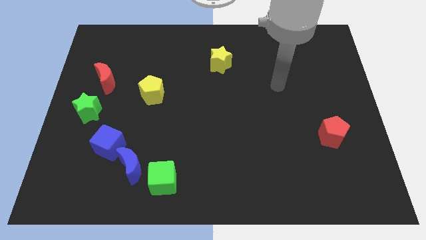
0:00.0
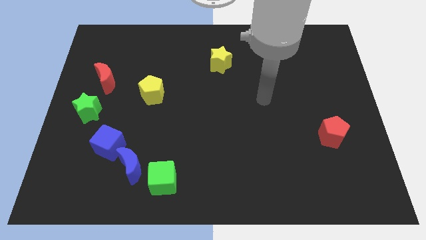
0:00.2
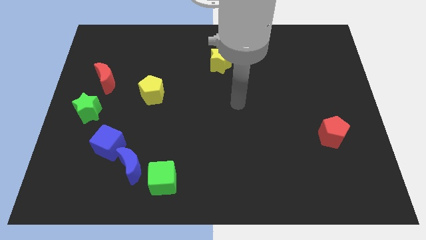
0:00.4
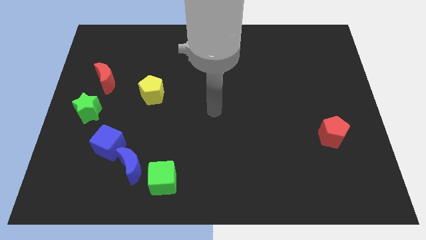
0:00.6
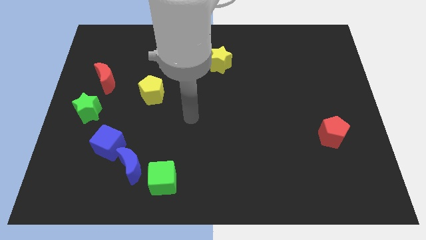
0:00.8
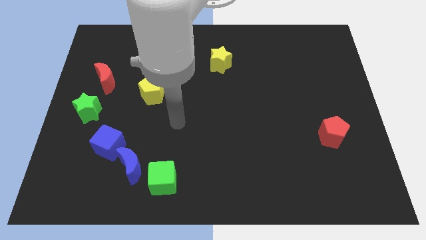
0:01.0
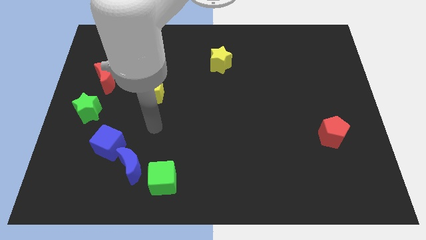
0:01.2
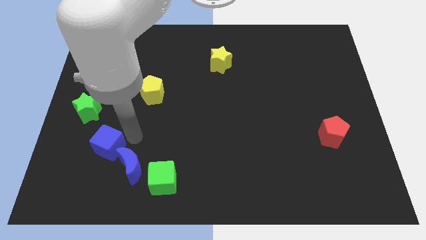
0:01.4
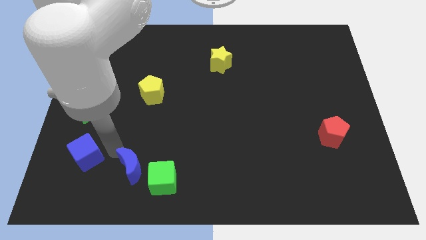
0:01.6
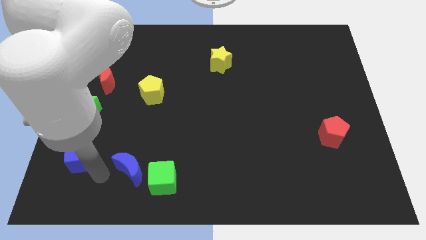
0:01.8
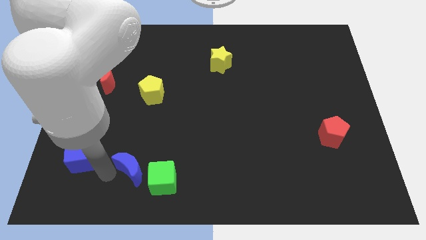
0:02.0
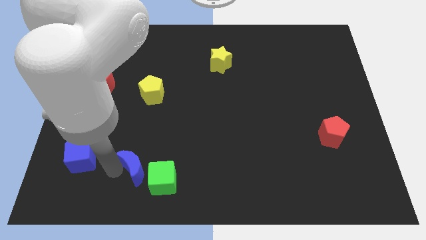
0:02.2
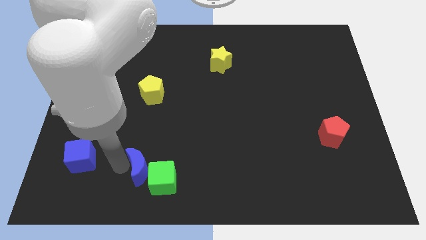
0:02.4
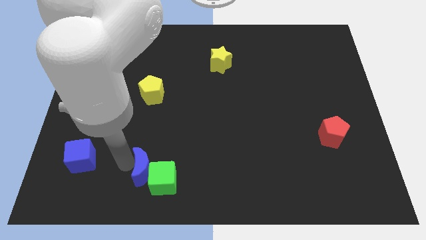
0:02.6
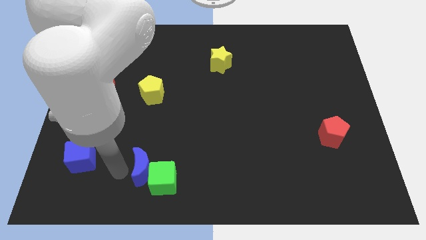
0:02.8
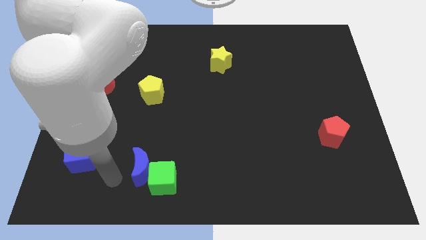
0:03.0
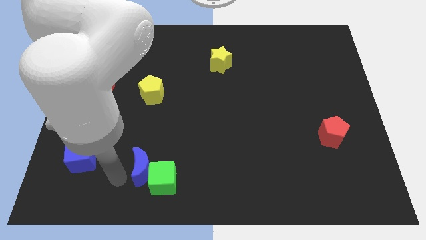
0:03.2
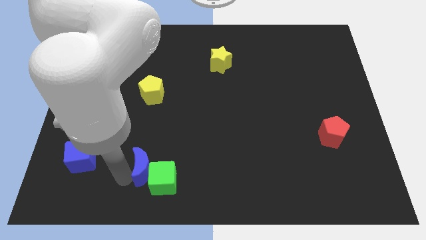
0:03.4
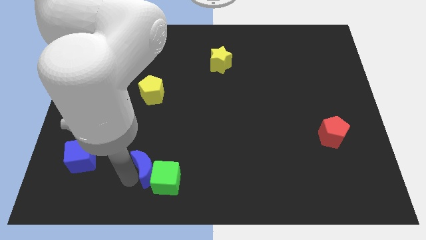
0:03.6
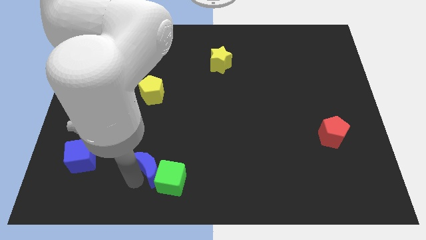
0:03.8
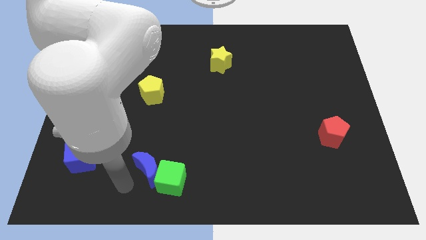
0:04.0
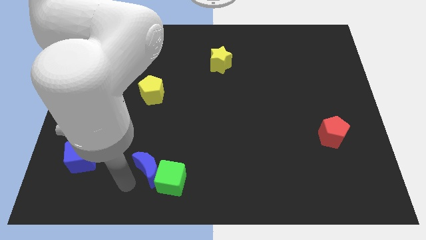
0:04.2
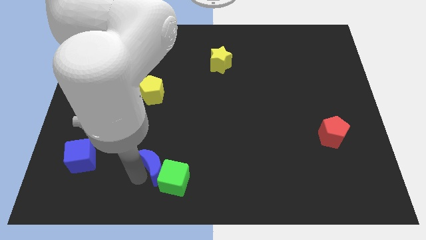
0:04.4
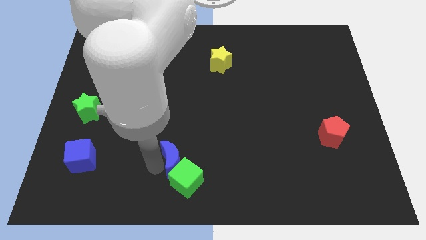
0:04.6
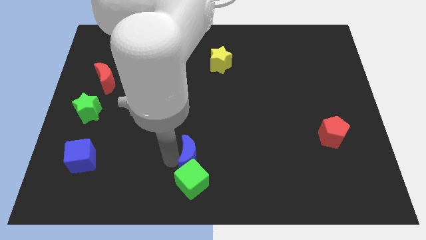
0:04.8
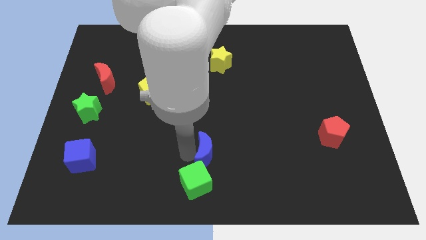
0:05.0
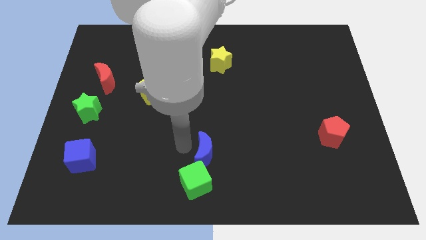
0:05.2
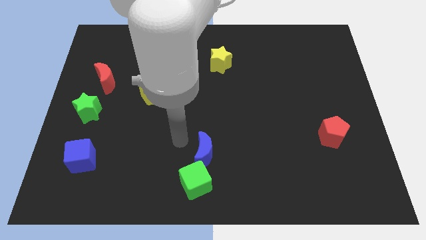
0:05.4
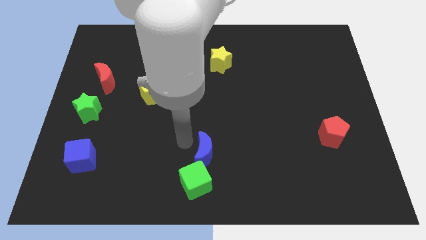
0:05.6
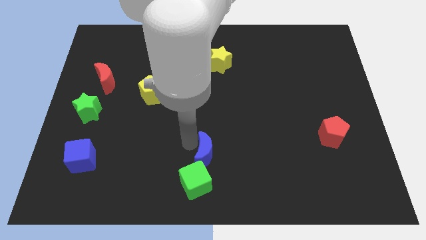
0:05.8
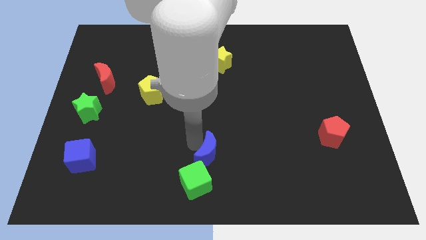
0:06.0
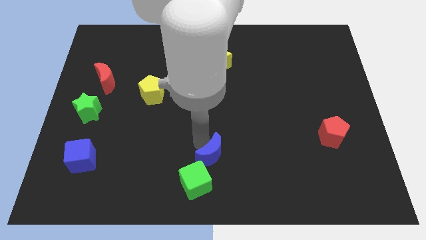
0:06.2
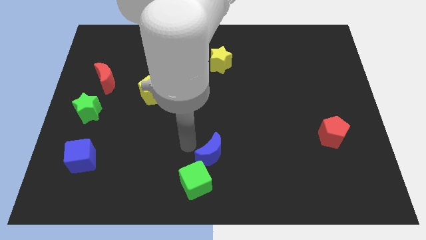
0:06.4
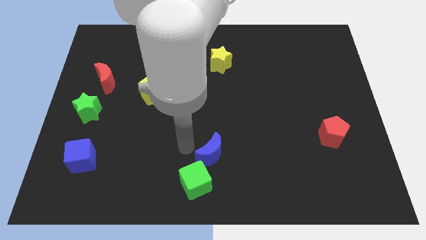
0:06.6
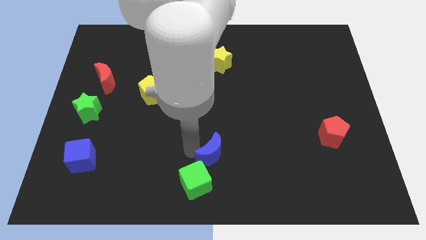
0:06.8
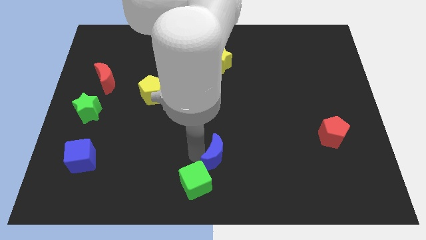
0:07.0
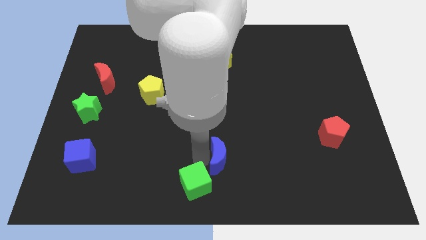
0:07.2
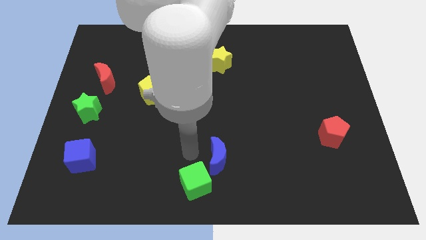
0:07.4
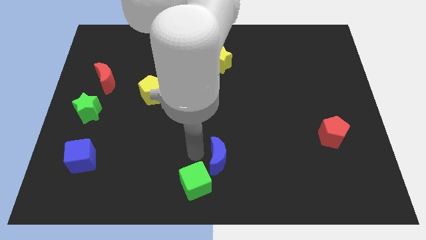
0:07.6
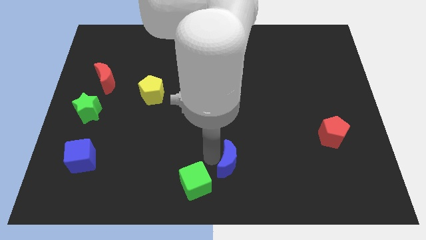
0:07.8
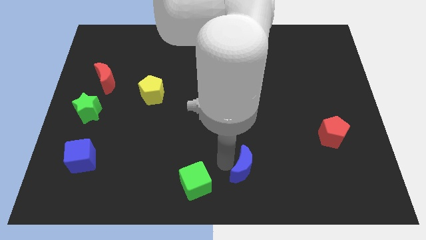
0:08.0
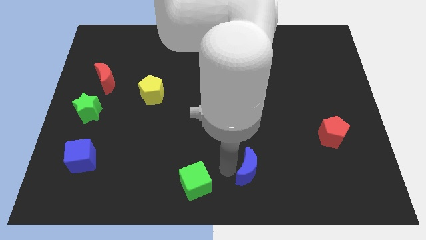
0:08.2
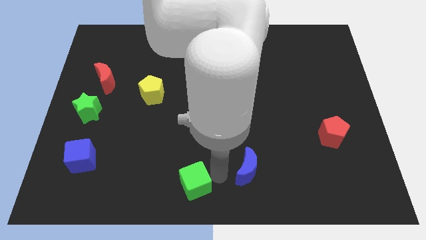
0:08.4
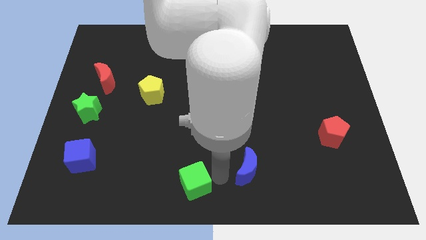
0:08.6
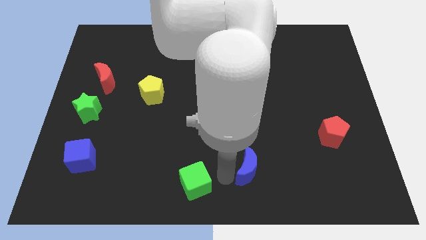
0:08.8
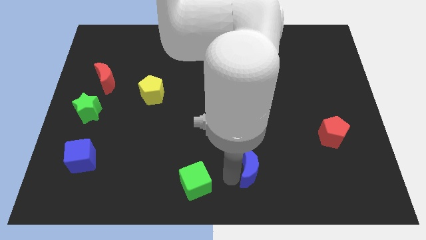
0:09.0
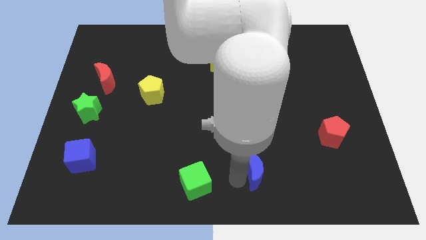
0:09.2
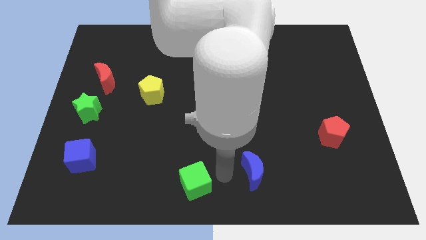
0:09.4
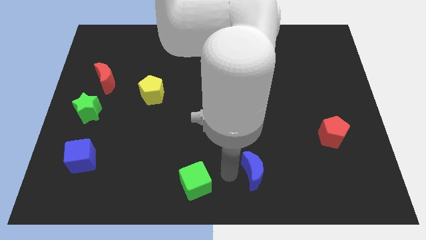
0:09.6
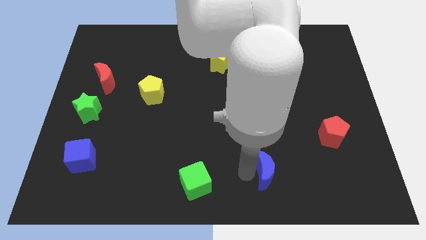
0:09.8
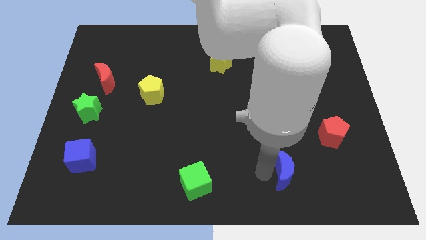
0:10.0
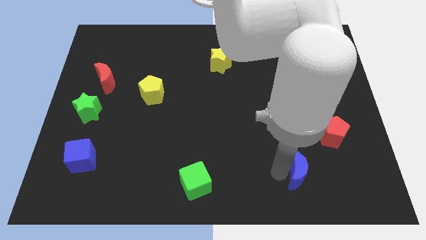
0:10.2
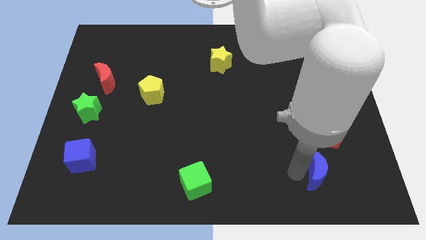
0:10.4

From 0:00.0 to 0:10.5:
push the blue moon to the bottom side of the red pentagon

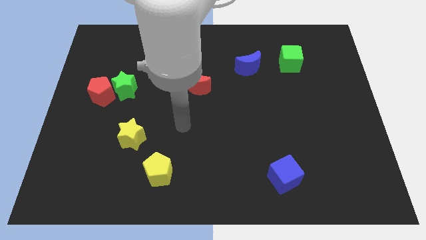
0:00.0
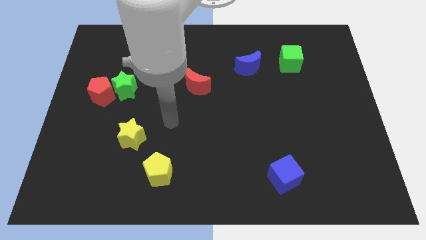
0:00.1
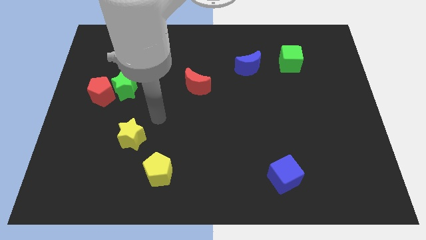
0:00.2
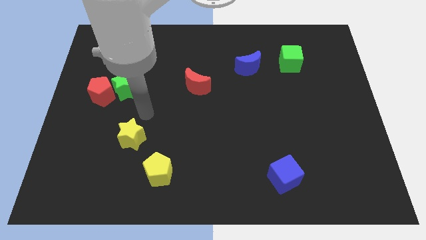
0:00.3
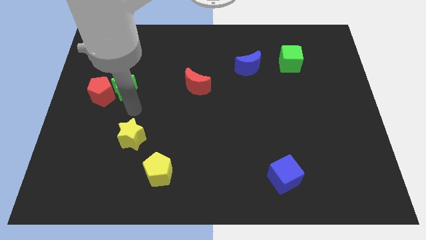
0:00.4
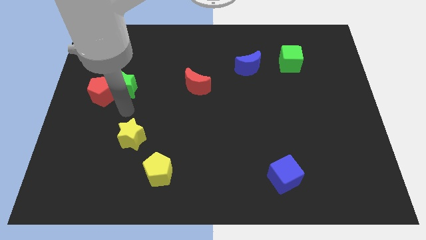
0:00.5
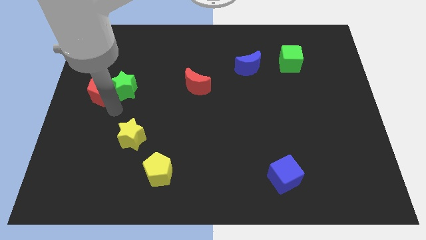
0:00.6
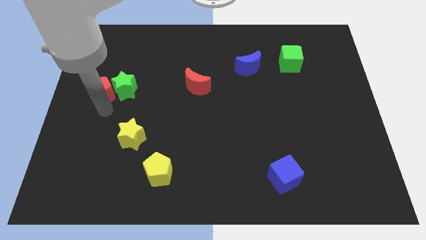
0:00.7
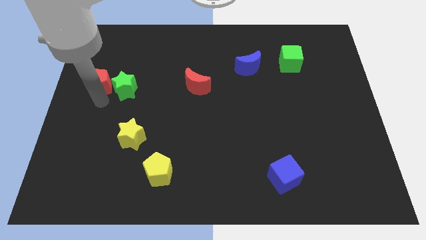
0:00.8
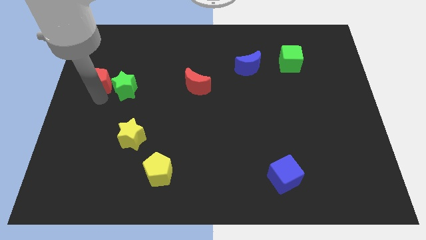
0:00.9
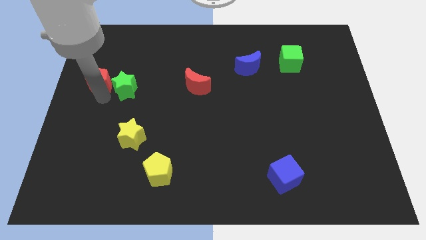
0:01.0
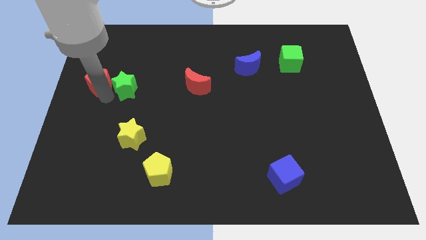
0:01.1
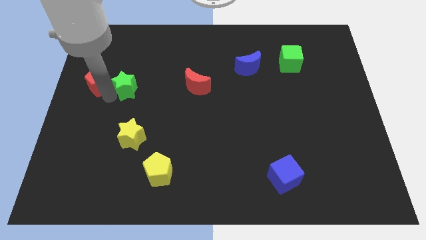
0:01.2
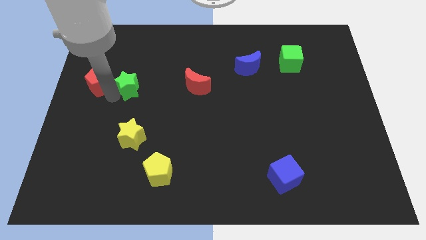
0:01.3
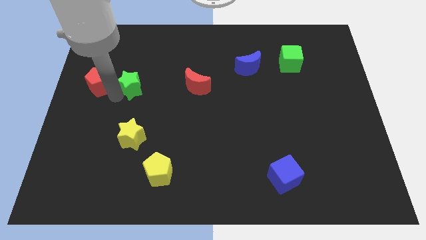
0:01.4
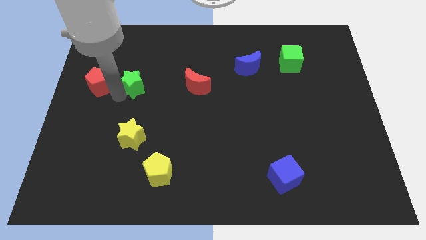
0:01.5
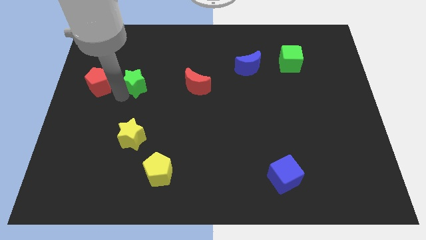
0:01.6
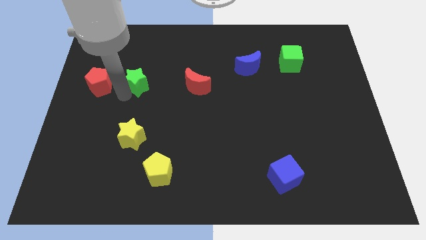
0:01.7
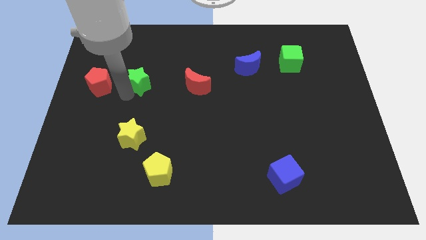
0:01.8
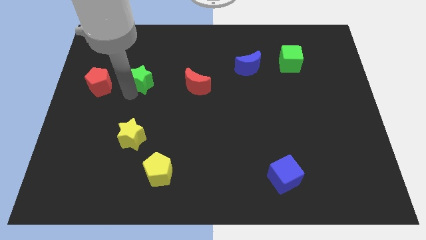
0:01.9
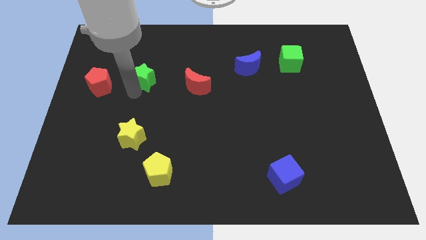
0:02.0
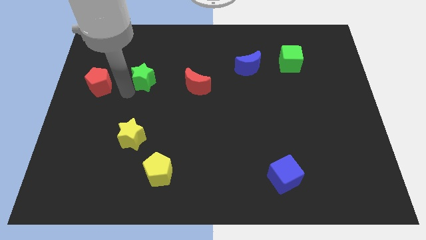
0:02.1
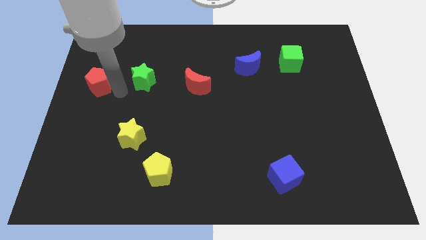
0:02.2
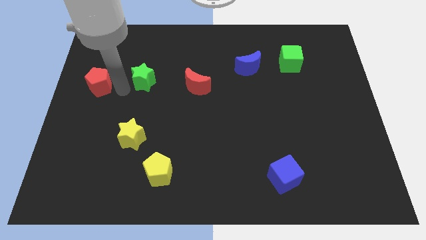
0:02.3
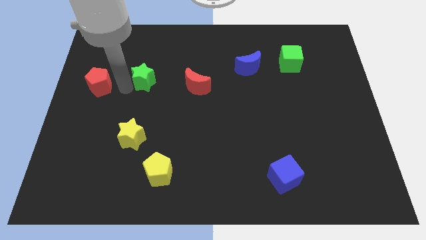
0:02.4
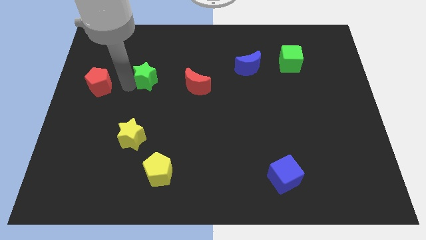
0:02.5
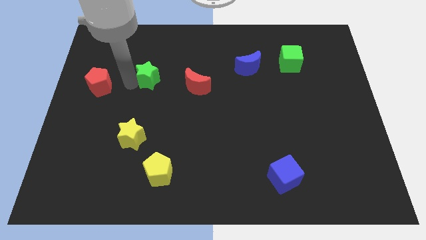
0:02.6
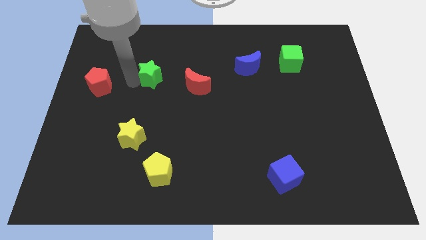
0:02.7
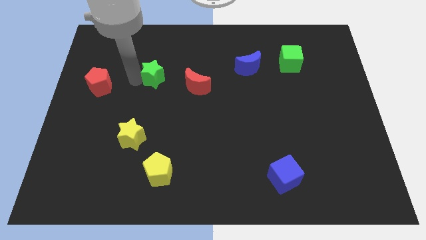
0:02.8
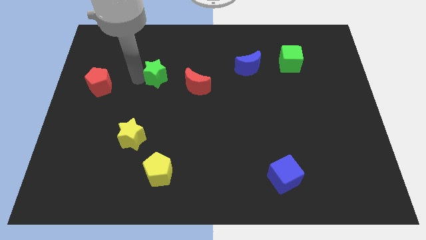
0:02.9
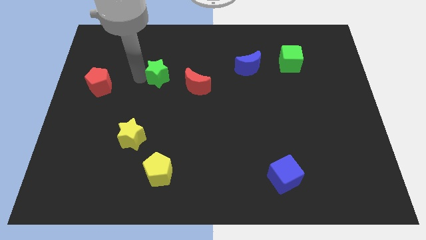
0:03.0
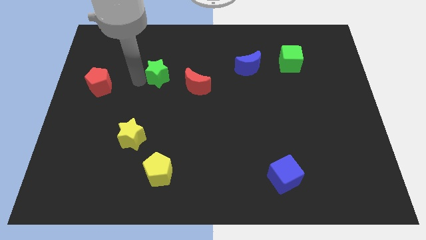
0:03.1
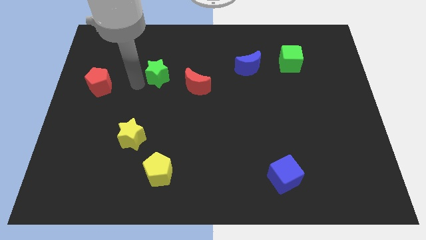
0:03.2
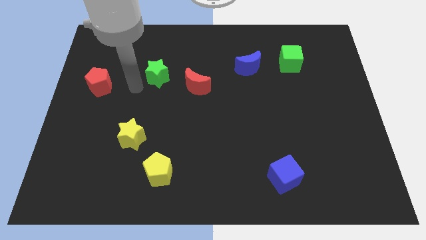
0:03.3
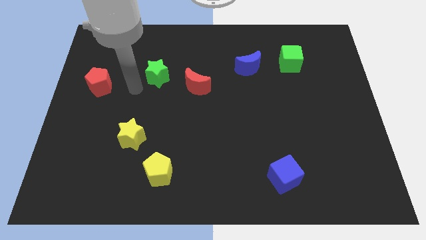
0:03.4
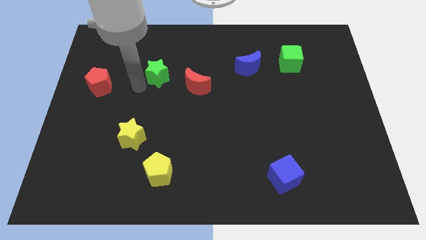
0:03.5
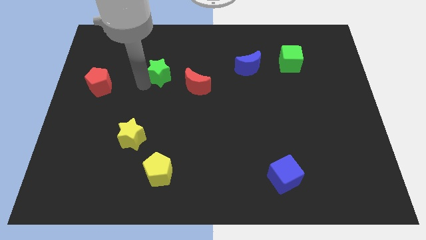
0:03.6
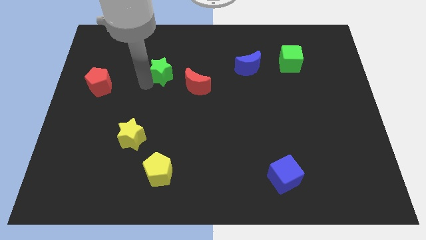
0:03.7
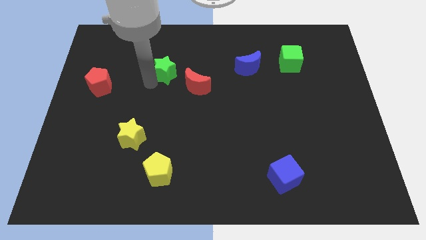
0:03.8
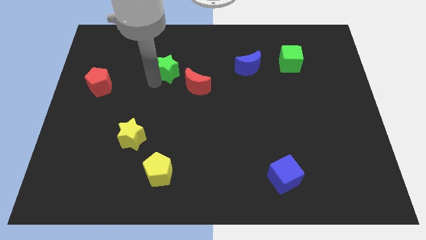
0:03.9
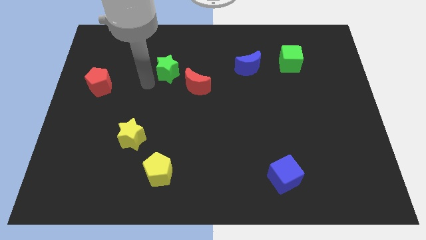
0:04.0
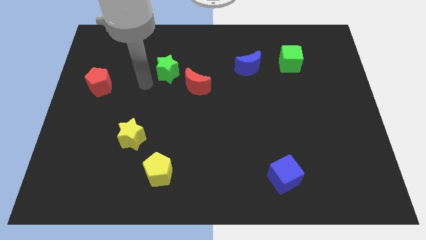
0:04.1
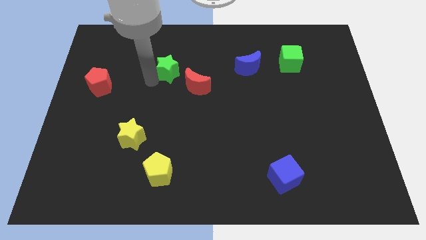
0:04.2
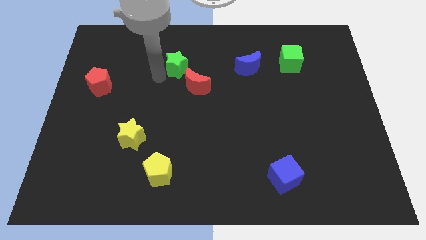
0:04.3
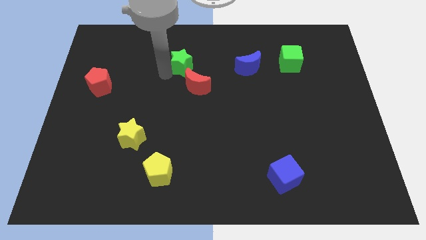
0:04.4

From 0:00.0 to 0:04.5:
slide the green star above the red moon
